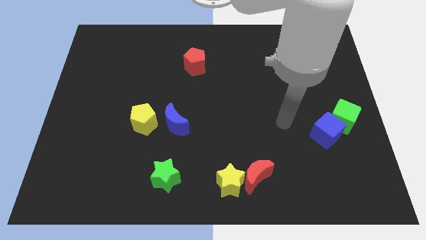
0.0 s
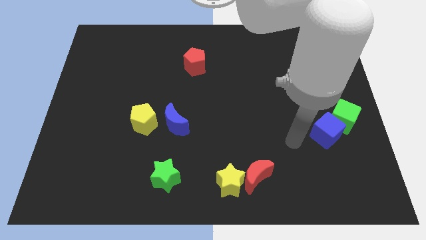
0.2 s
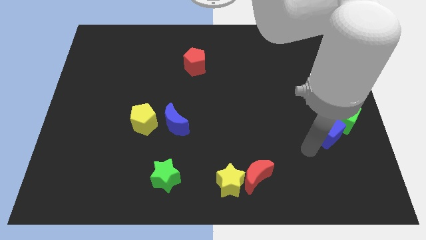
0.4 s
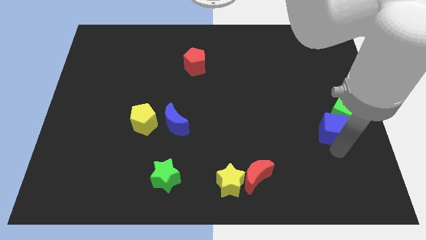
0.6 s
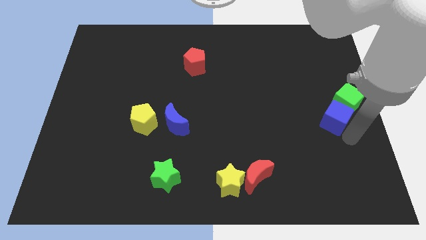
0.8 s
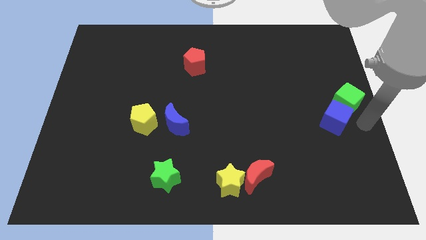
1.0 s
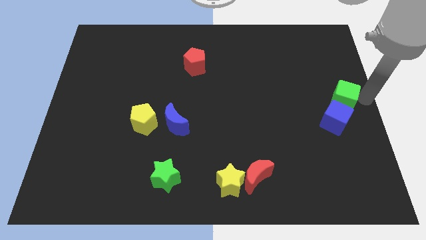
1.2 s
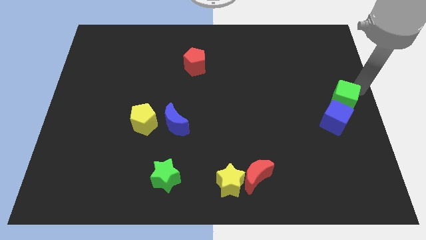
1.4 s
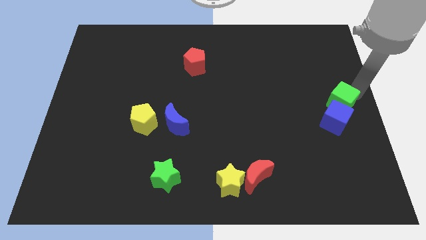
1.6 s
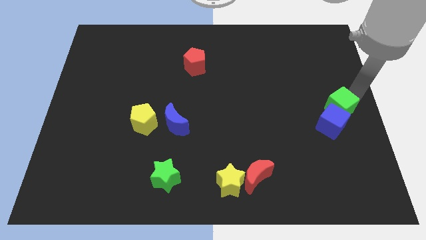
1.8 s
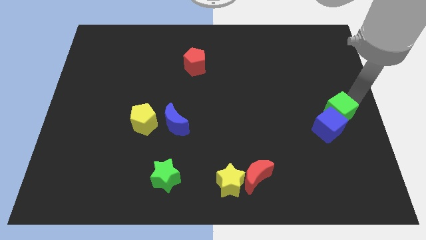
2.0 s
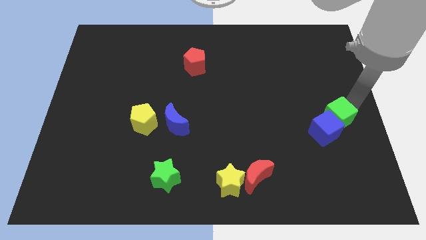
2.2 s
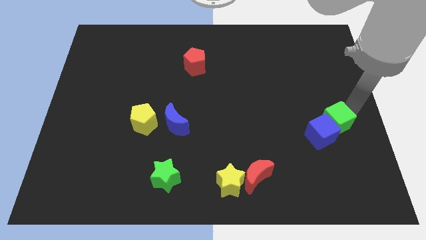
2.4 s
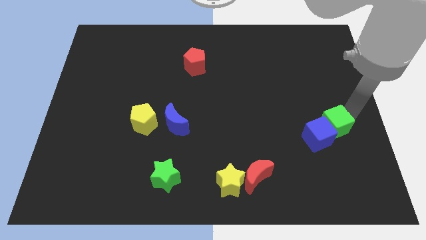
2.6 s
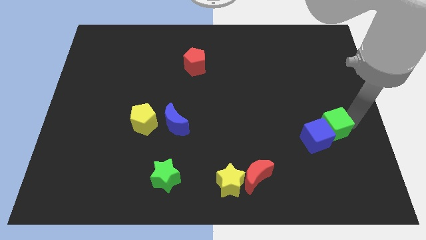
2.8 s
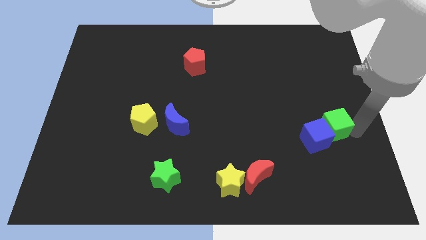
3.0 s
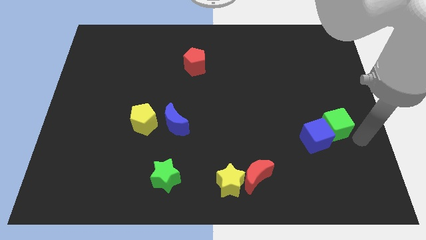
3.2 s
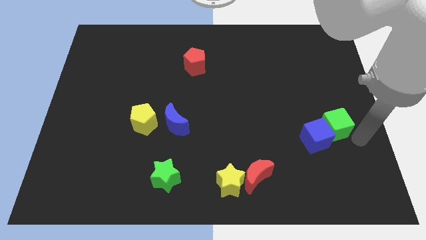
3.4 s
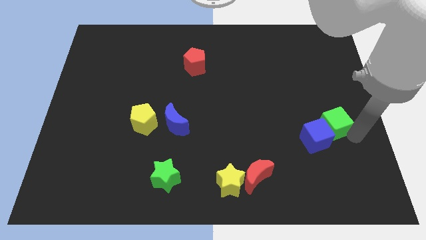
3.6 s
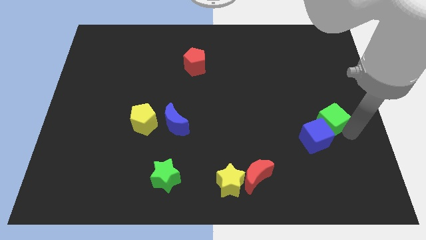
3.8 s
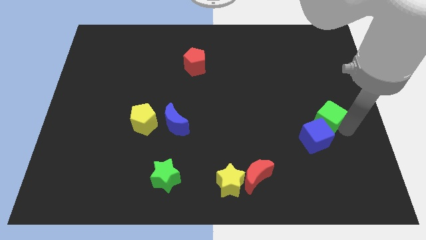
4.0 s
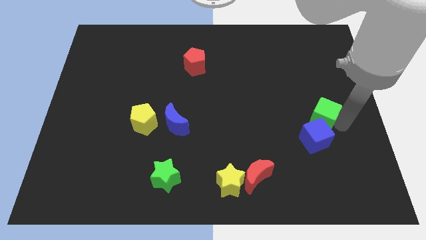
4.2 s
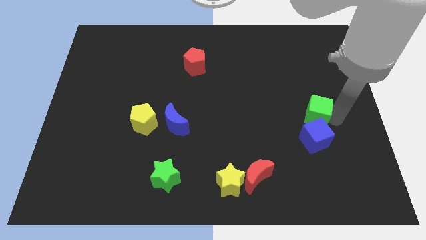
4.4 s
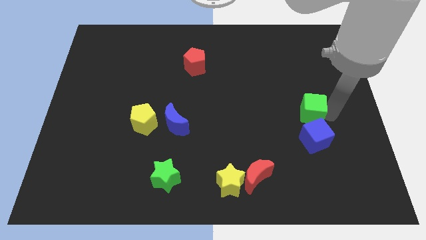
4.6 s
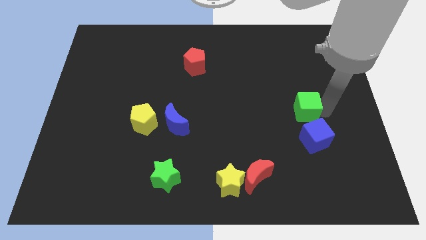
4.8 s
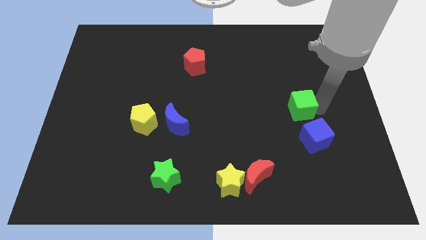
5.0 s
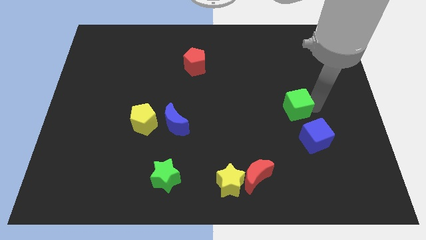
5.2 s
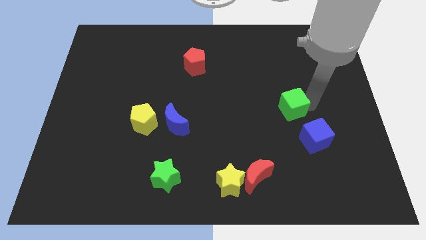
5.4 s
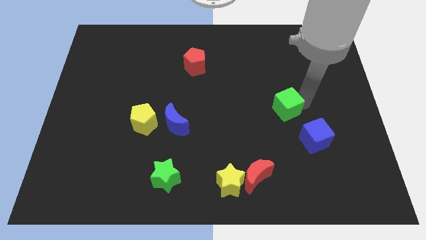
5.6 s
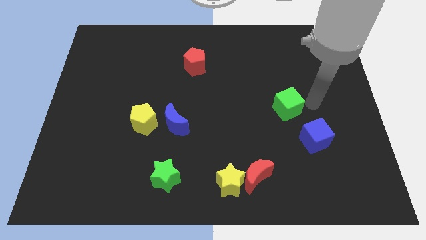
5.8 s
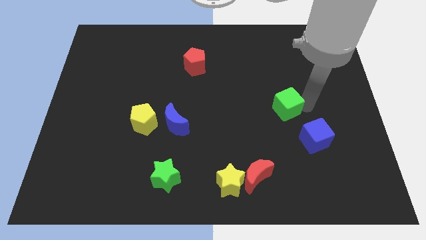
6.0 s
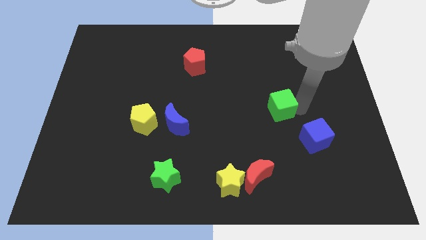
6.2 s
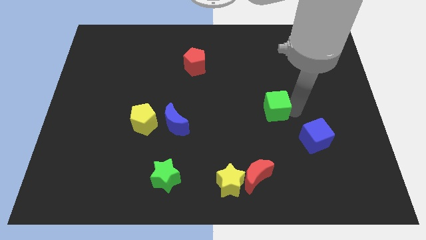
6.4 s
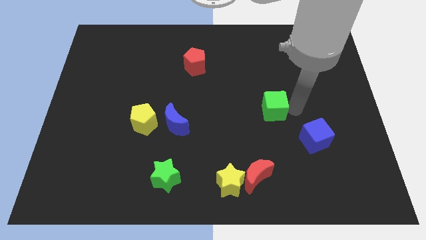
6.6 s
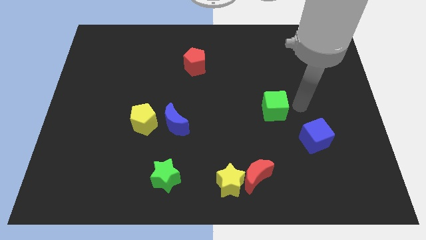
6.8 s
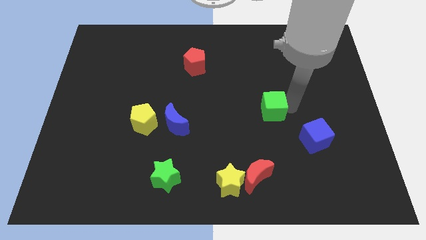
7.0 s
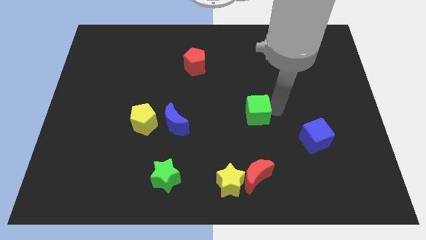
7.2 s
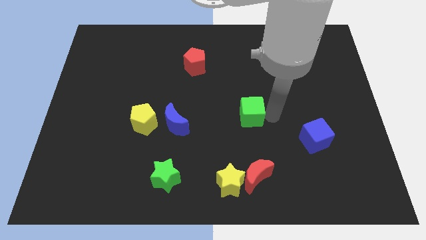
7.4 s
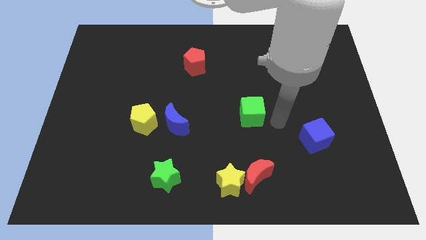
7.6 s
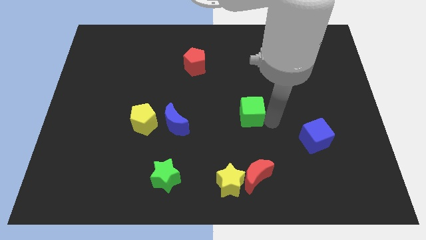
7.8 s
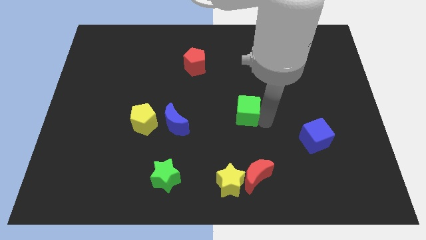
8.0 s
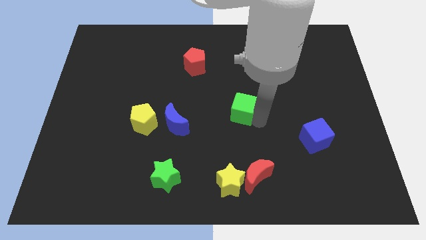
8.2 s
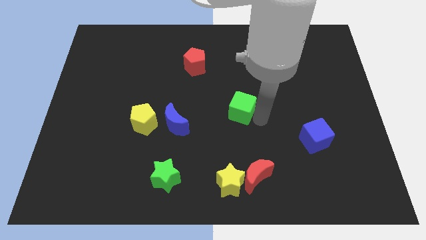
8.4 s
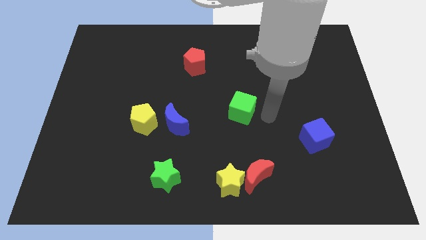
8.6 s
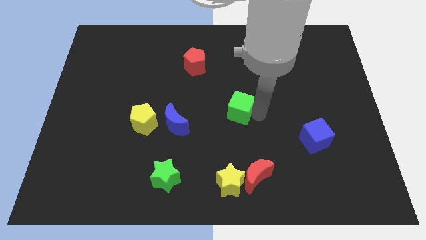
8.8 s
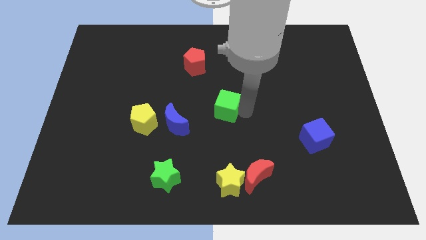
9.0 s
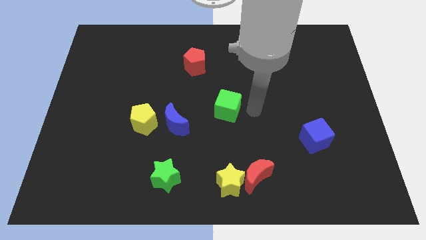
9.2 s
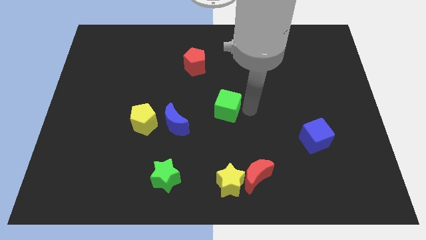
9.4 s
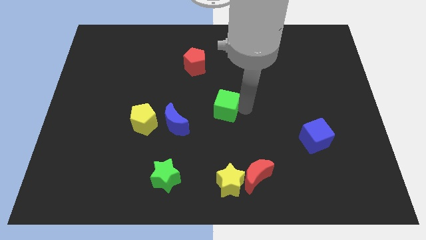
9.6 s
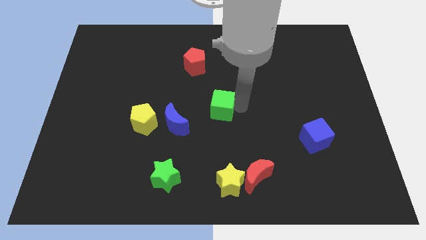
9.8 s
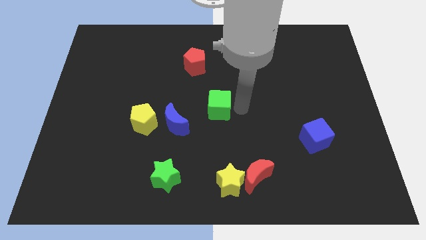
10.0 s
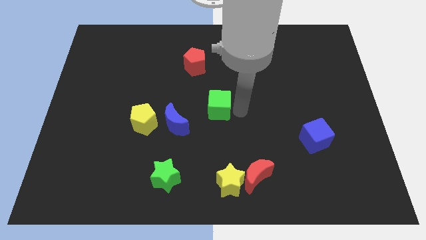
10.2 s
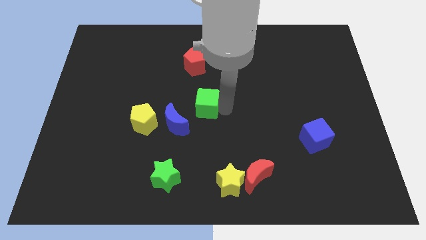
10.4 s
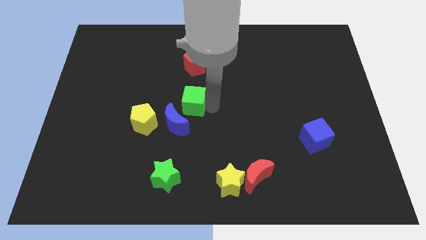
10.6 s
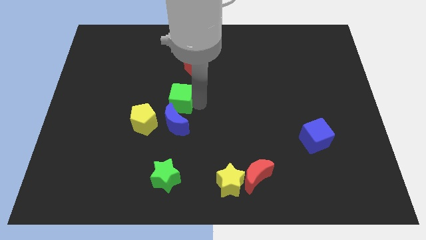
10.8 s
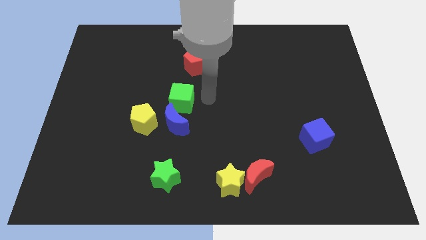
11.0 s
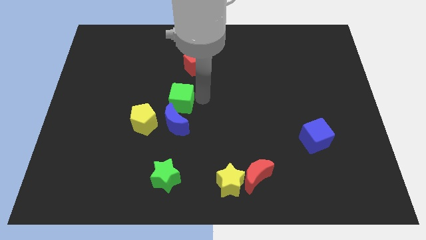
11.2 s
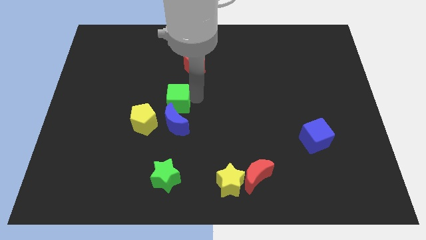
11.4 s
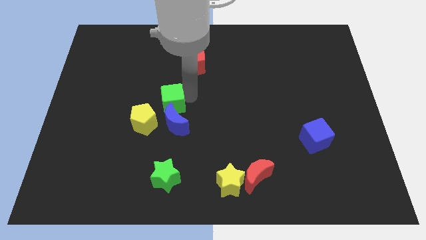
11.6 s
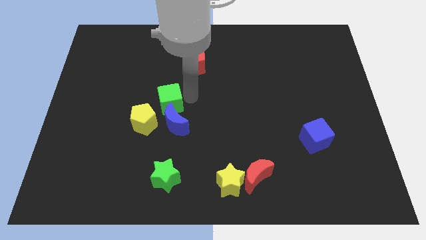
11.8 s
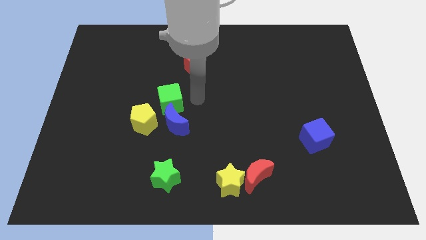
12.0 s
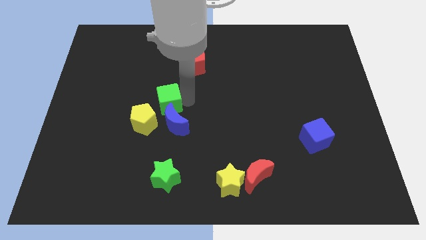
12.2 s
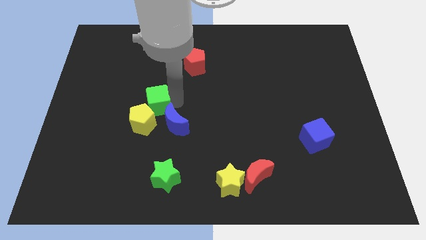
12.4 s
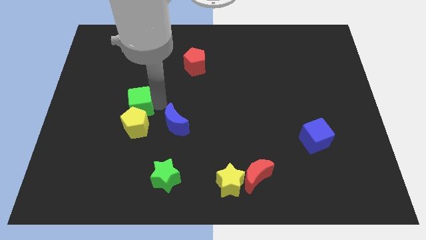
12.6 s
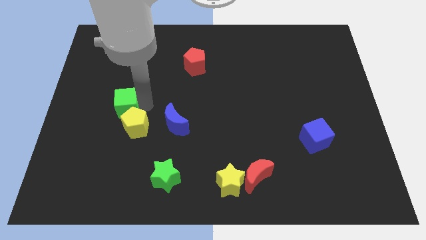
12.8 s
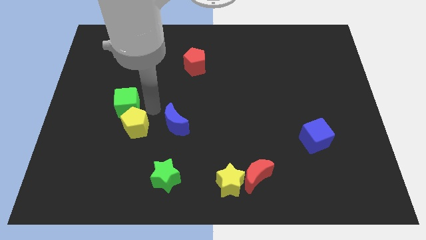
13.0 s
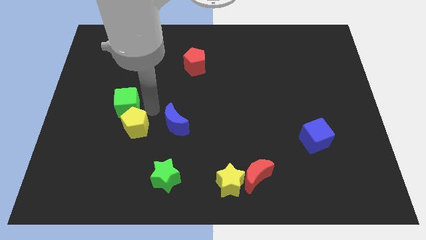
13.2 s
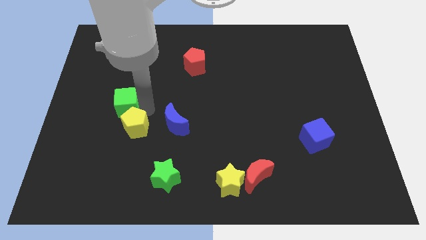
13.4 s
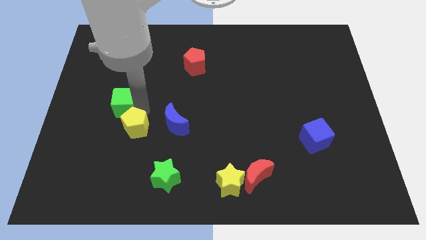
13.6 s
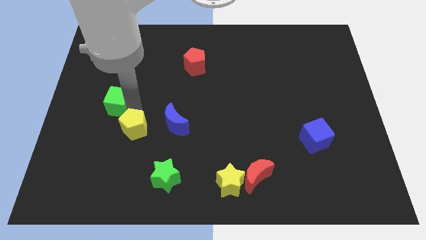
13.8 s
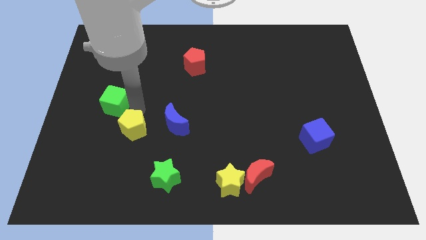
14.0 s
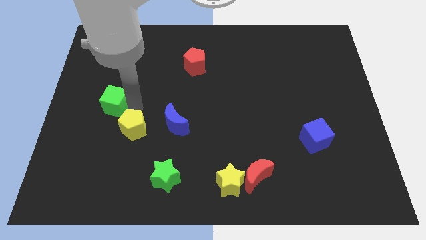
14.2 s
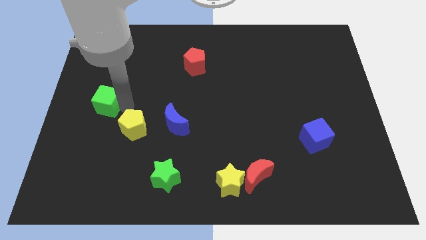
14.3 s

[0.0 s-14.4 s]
slide the green cube to the center left

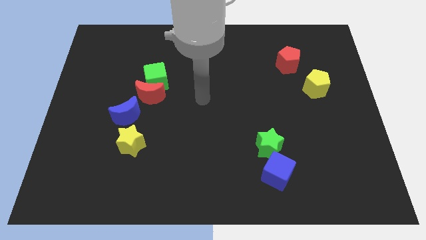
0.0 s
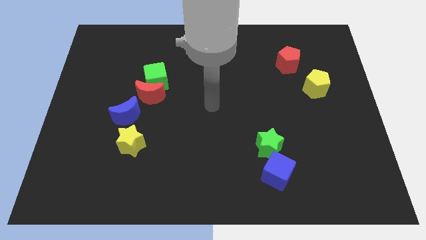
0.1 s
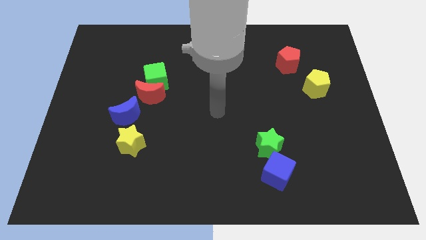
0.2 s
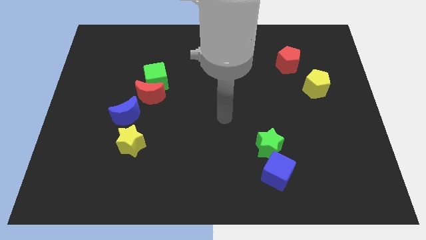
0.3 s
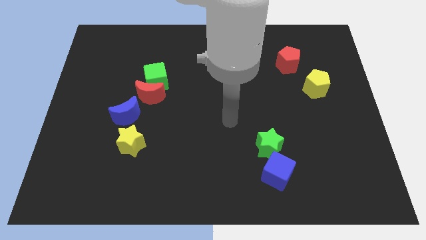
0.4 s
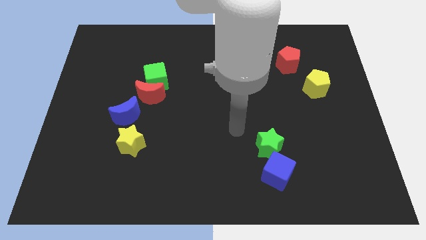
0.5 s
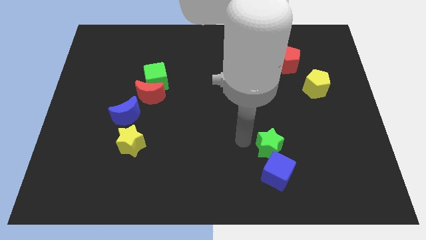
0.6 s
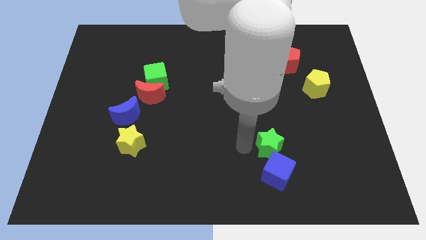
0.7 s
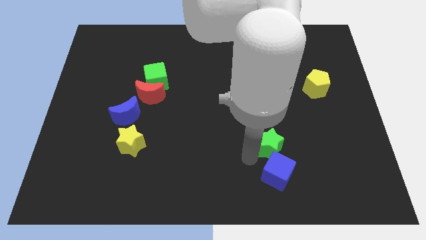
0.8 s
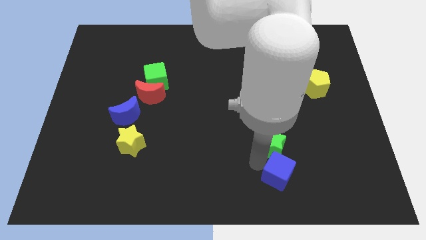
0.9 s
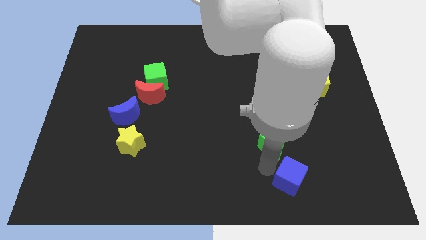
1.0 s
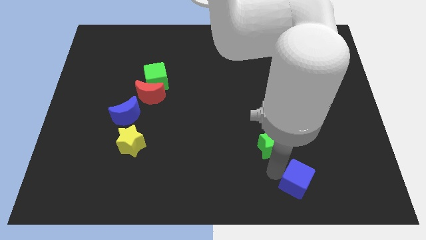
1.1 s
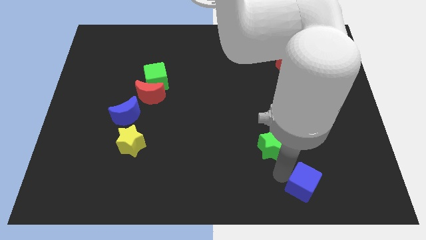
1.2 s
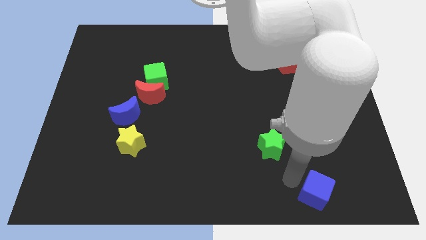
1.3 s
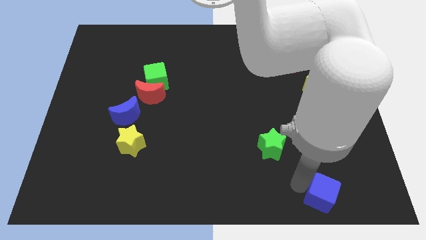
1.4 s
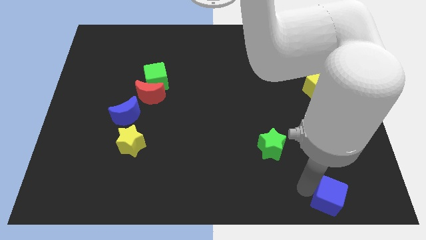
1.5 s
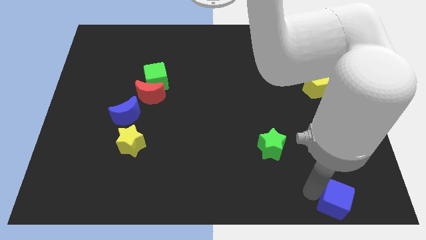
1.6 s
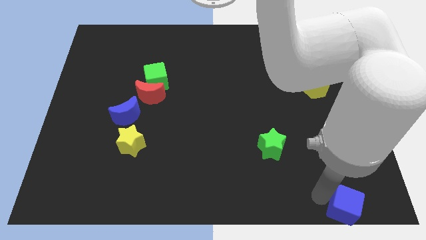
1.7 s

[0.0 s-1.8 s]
slide the blue cube to the bottom right
